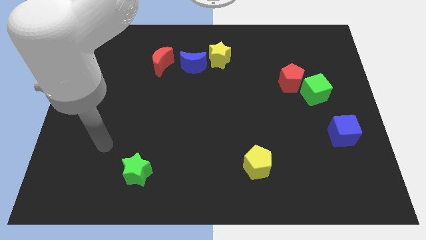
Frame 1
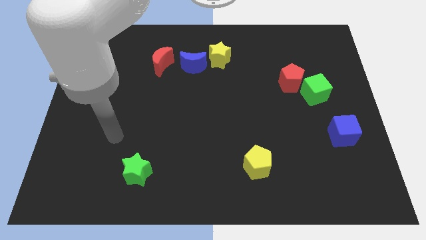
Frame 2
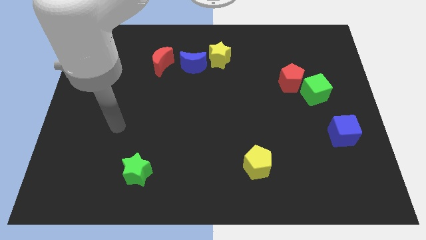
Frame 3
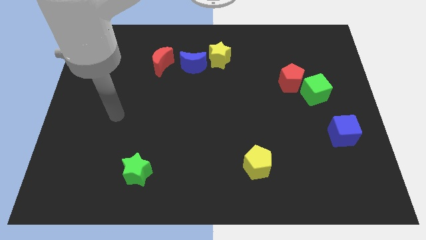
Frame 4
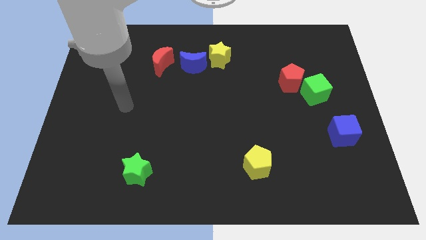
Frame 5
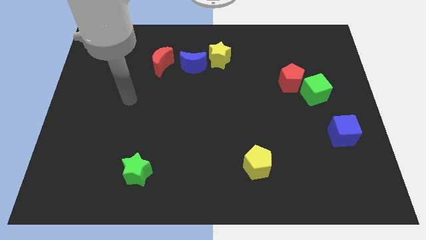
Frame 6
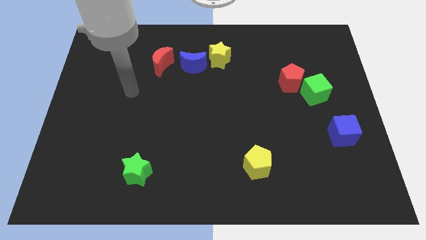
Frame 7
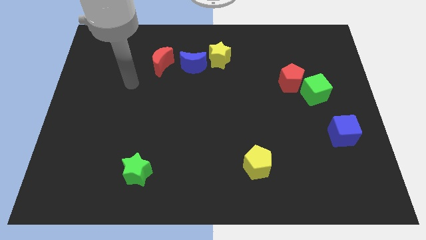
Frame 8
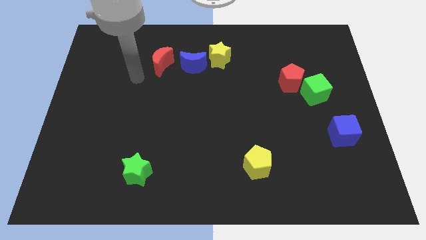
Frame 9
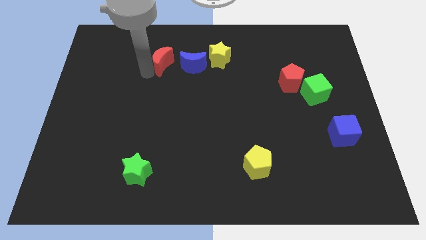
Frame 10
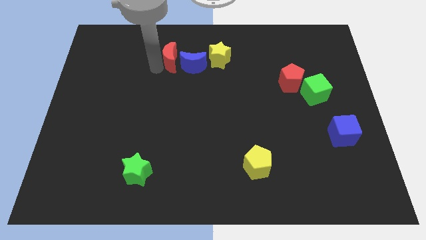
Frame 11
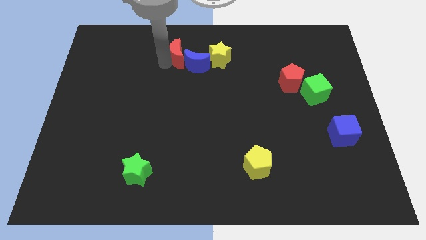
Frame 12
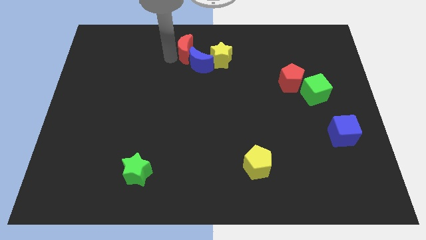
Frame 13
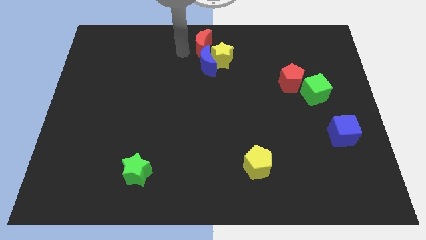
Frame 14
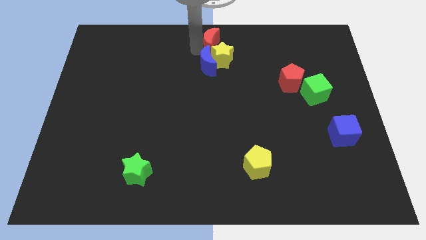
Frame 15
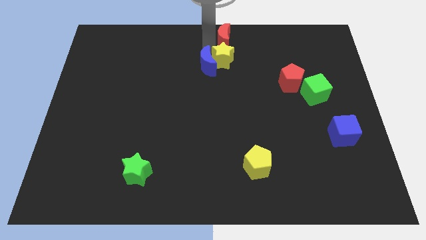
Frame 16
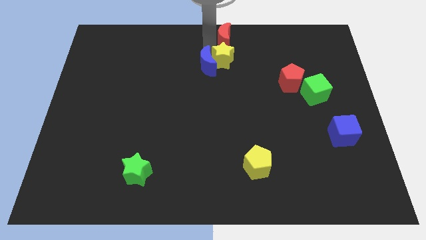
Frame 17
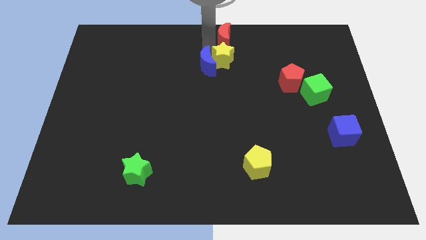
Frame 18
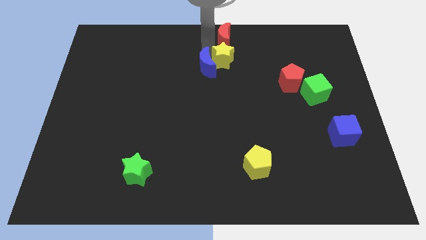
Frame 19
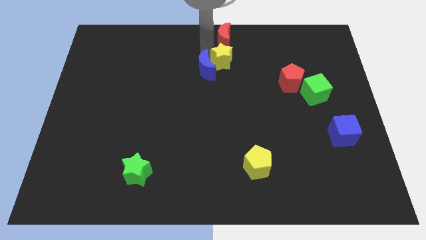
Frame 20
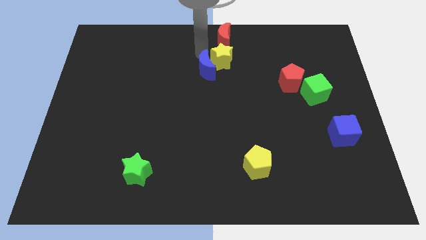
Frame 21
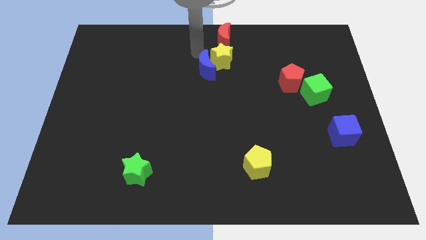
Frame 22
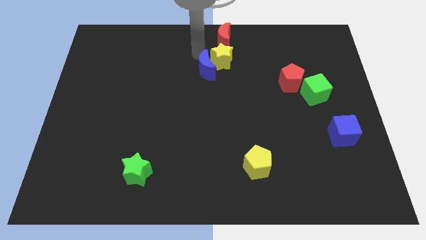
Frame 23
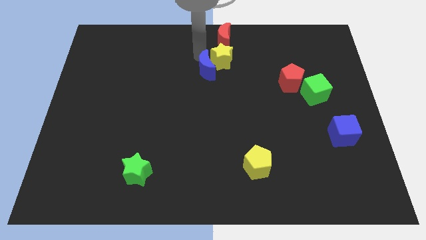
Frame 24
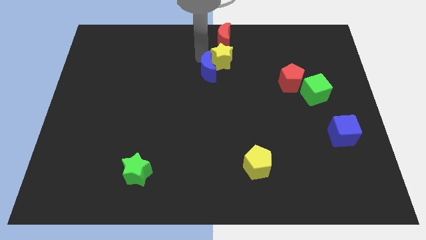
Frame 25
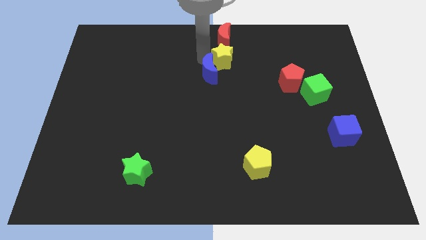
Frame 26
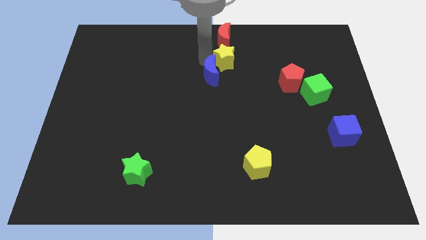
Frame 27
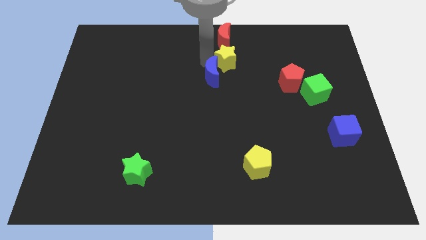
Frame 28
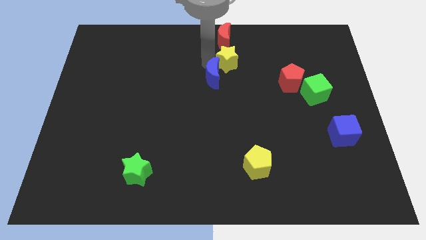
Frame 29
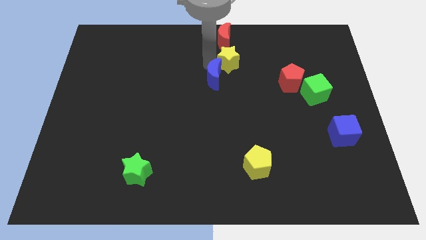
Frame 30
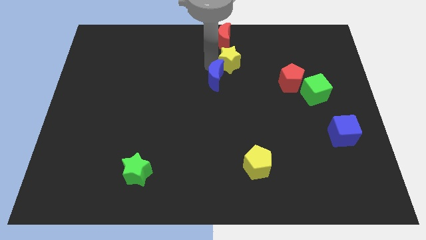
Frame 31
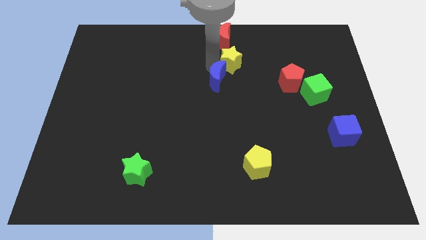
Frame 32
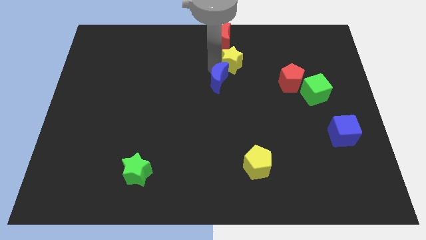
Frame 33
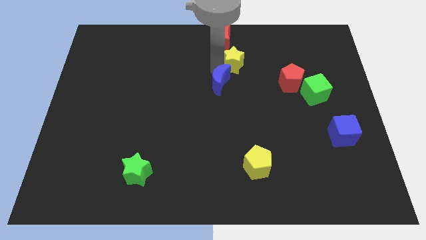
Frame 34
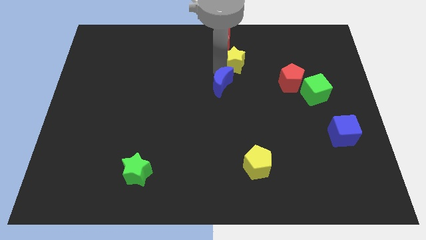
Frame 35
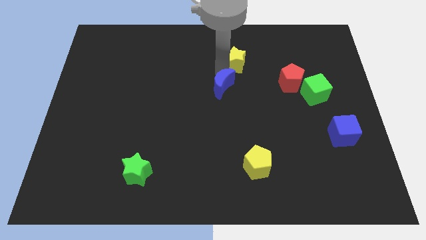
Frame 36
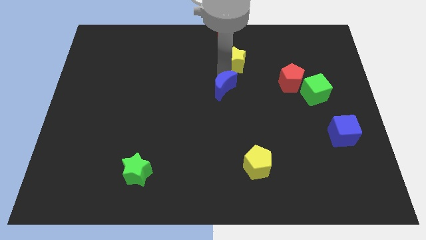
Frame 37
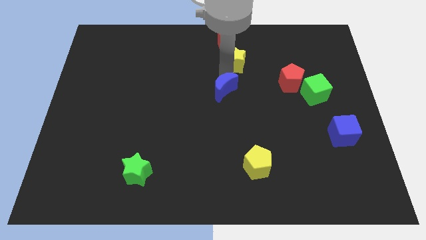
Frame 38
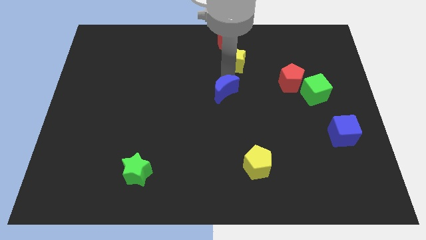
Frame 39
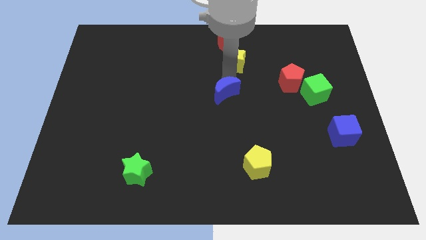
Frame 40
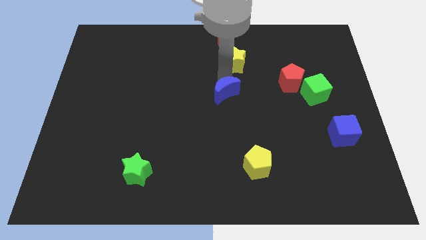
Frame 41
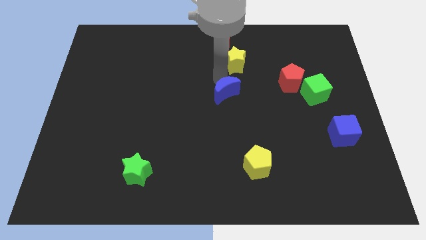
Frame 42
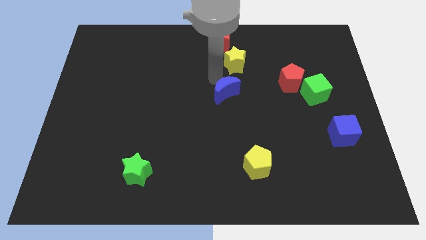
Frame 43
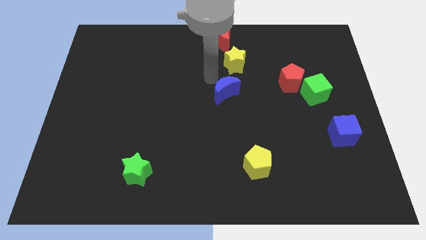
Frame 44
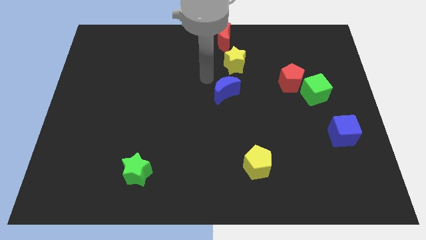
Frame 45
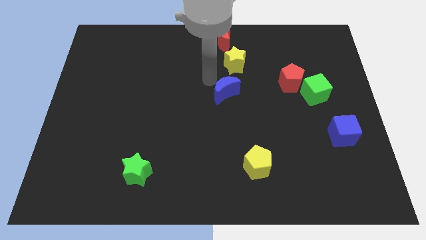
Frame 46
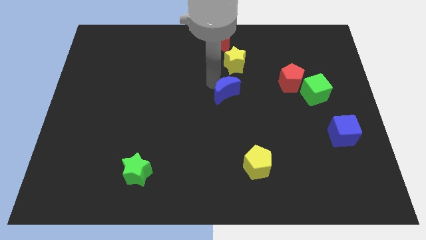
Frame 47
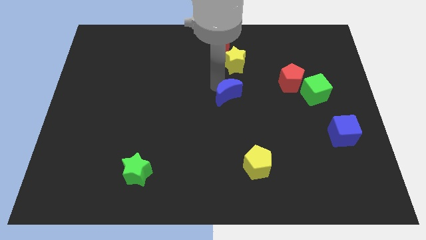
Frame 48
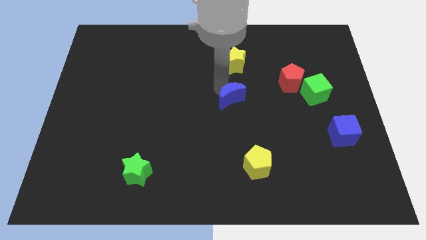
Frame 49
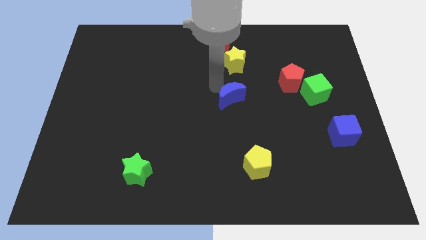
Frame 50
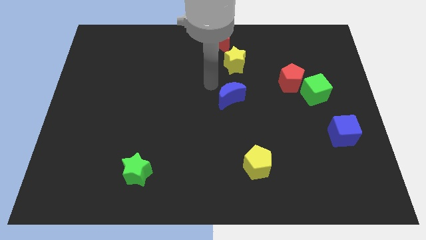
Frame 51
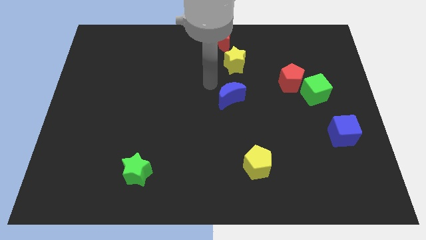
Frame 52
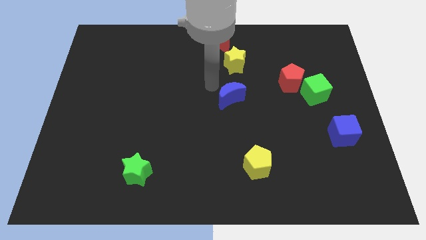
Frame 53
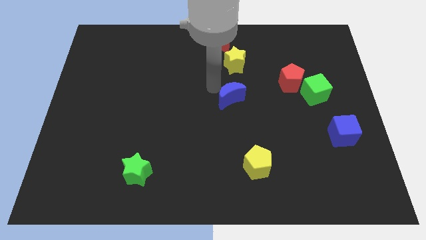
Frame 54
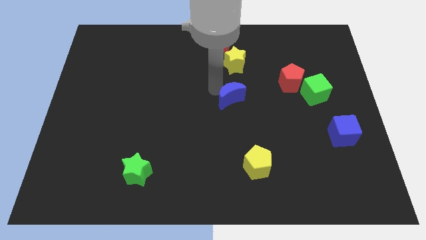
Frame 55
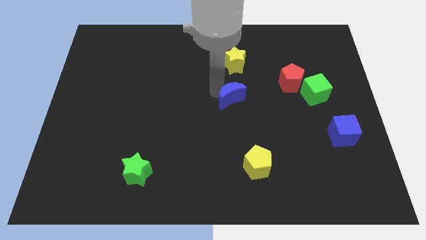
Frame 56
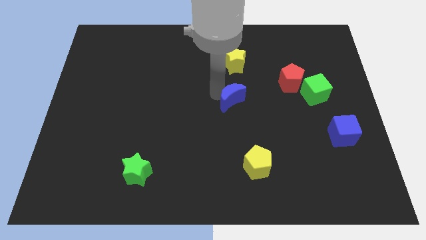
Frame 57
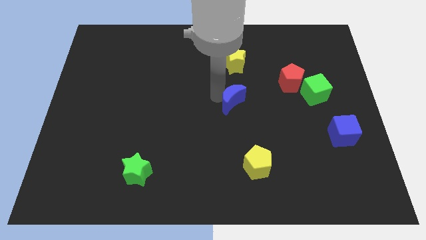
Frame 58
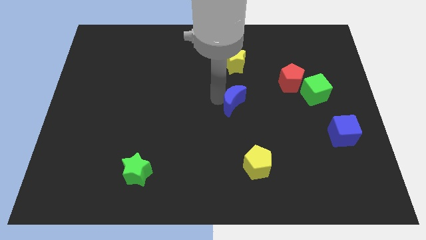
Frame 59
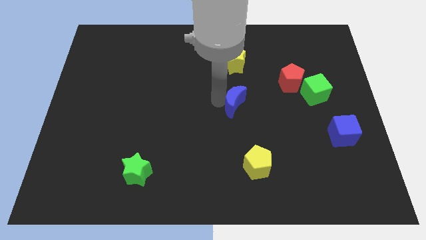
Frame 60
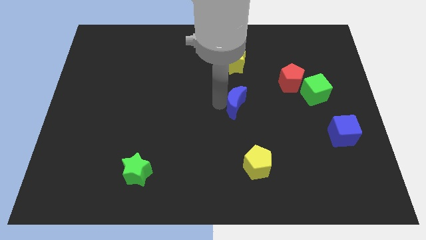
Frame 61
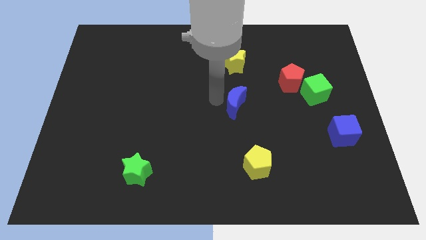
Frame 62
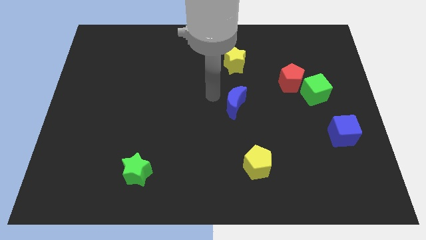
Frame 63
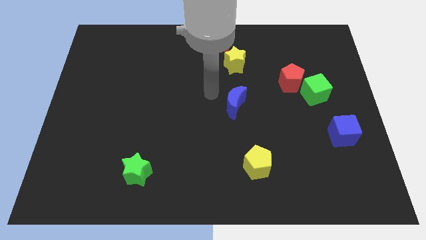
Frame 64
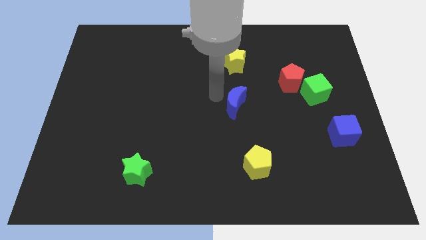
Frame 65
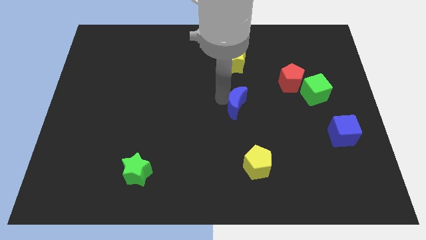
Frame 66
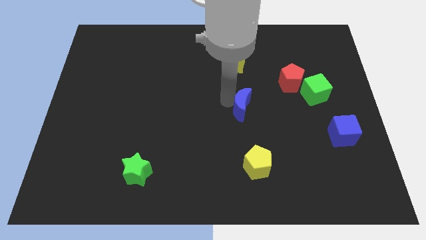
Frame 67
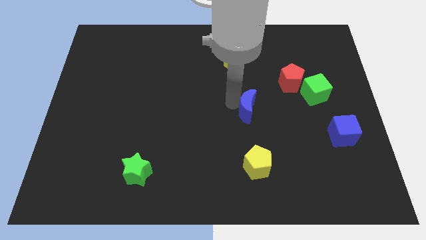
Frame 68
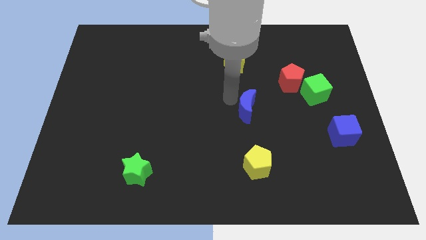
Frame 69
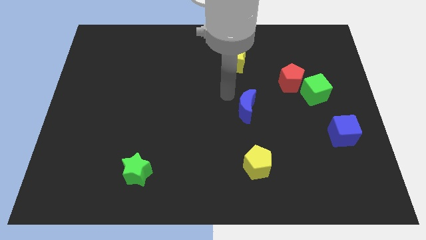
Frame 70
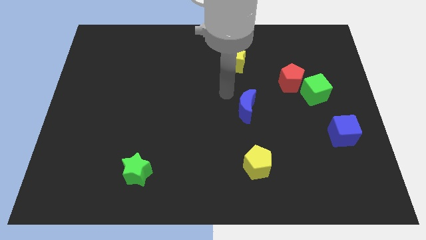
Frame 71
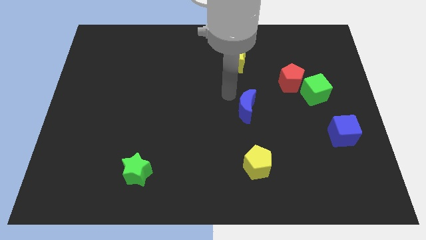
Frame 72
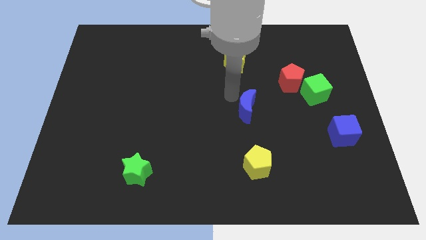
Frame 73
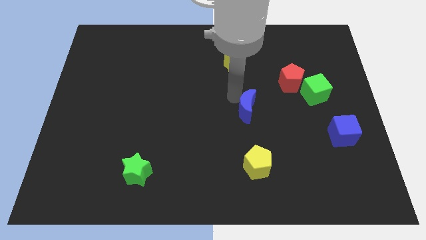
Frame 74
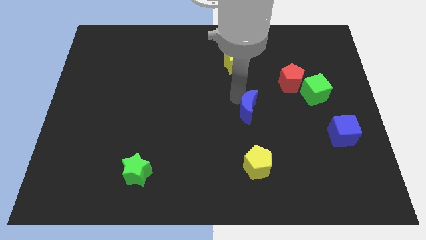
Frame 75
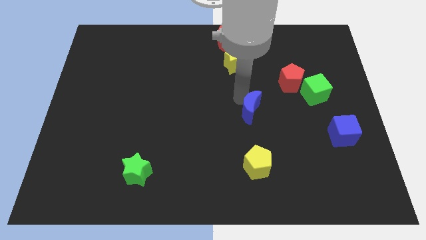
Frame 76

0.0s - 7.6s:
slide the blue moon down and right diagonally

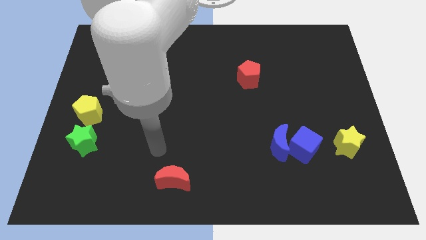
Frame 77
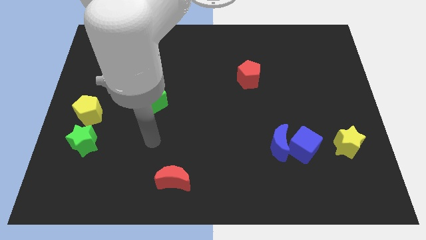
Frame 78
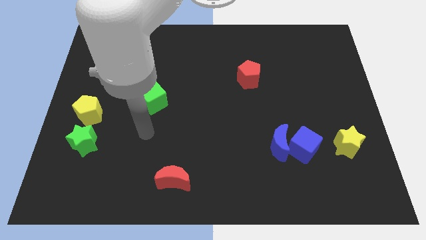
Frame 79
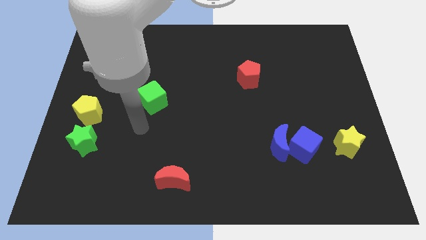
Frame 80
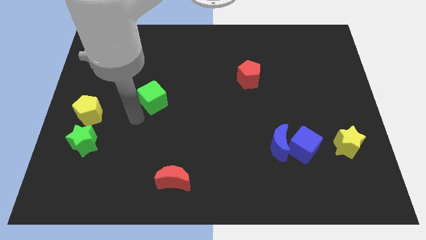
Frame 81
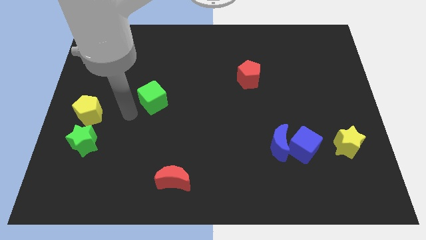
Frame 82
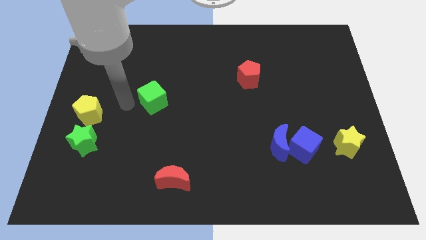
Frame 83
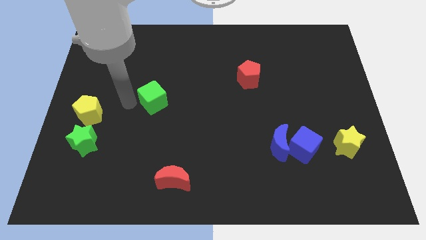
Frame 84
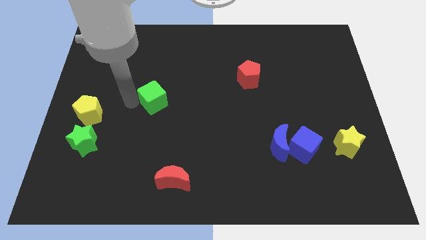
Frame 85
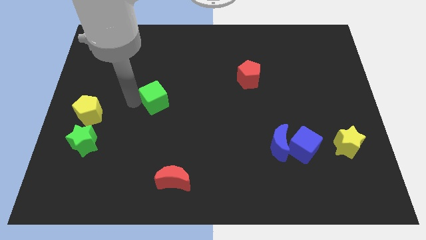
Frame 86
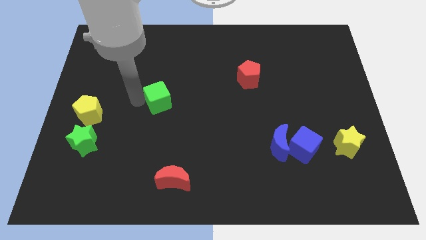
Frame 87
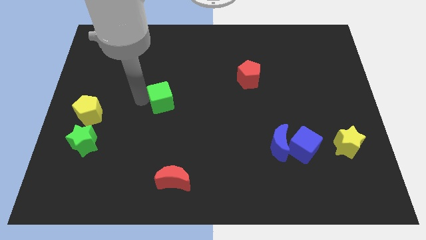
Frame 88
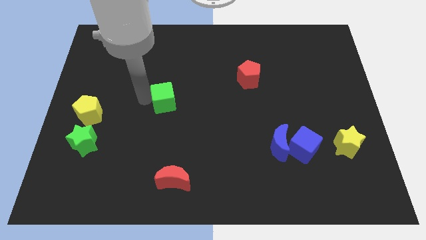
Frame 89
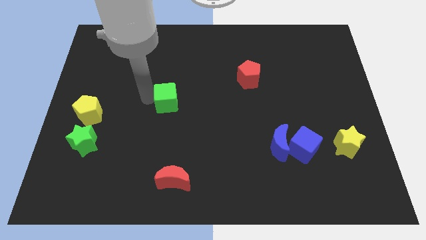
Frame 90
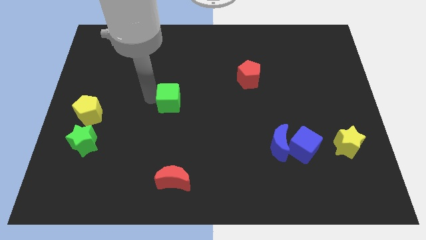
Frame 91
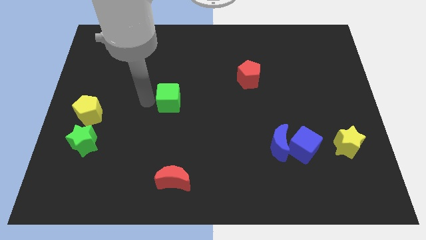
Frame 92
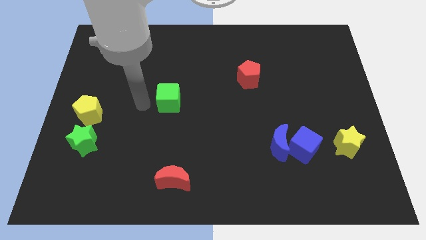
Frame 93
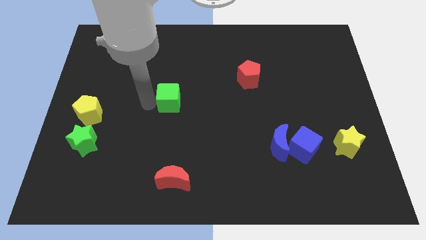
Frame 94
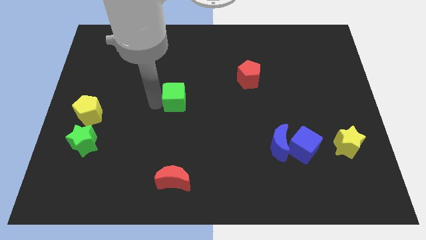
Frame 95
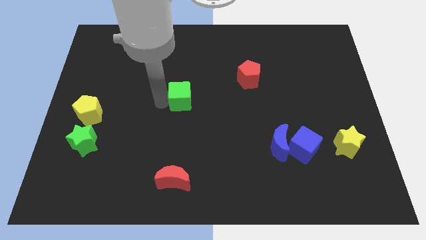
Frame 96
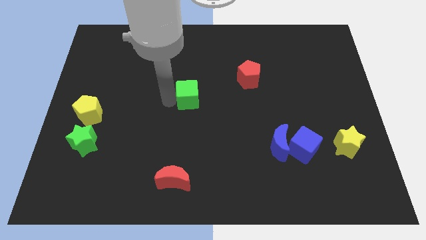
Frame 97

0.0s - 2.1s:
slightly move the green cube right
